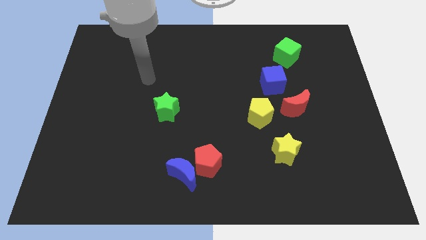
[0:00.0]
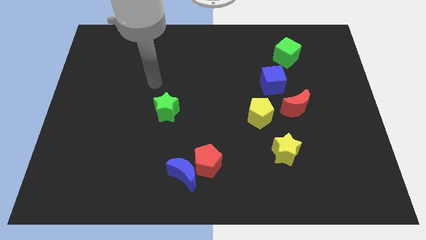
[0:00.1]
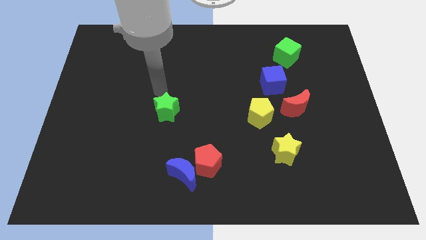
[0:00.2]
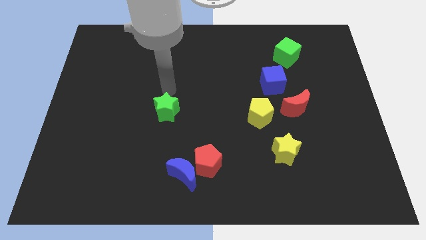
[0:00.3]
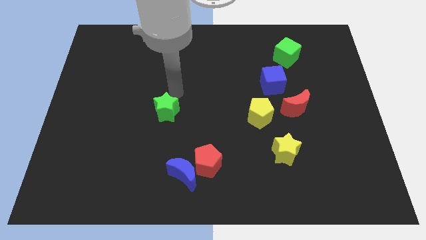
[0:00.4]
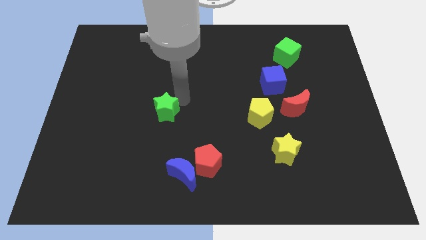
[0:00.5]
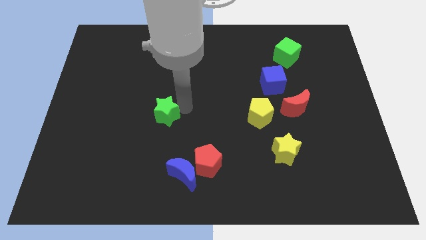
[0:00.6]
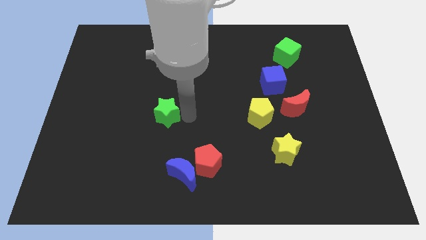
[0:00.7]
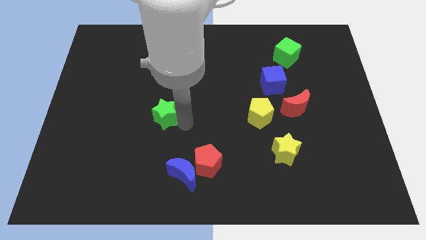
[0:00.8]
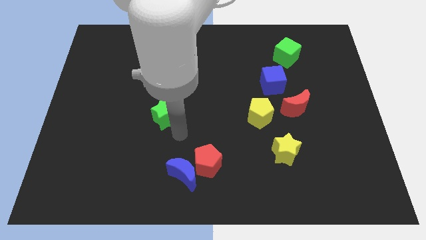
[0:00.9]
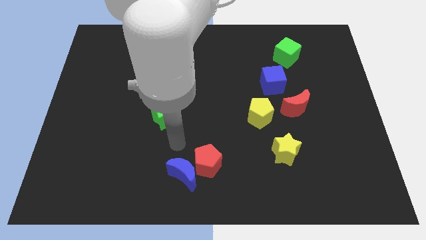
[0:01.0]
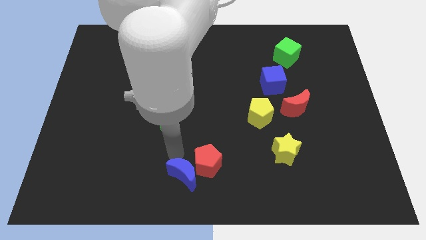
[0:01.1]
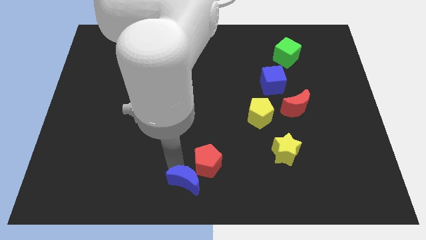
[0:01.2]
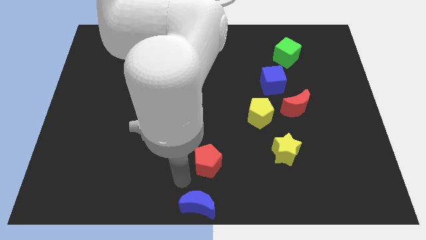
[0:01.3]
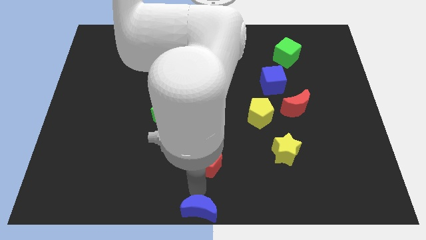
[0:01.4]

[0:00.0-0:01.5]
pull the red pentagon apart from the blue moon

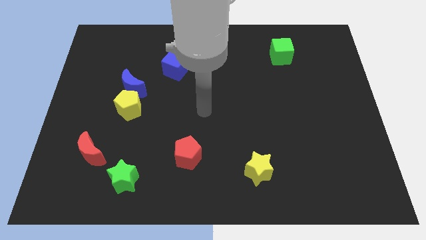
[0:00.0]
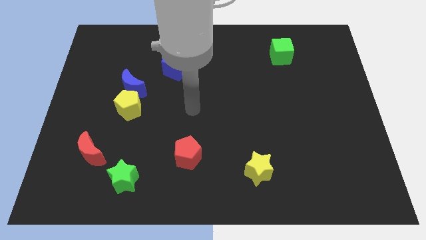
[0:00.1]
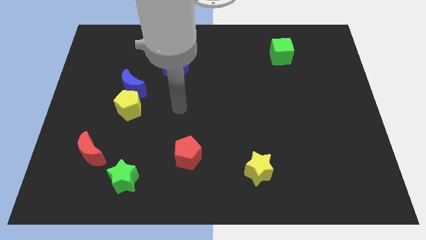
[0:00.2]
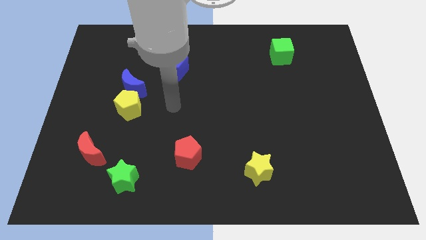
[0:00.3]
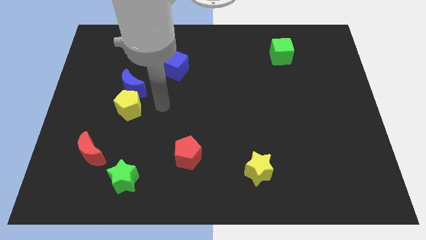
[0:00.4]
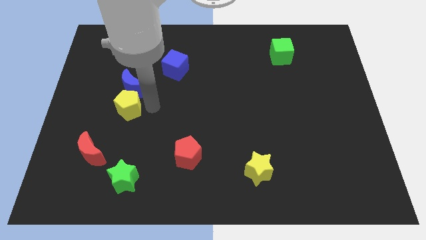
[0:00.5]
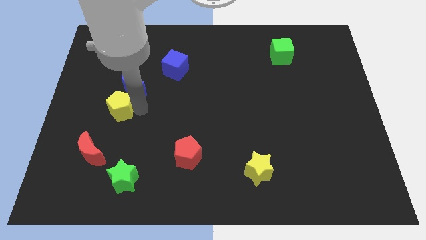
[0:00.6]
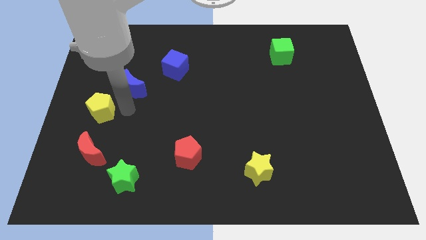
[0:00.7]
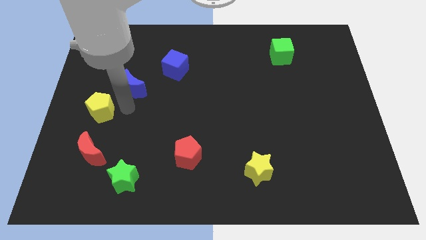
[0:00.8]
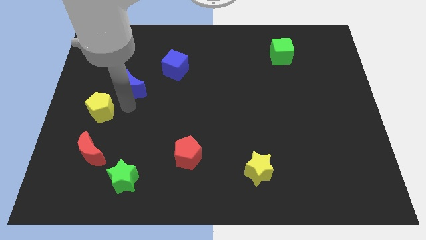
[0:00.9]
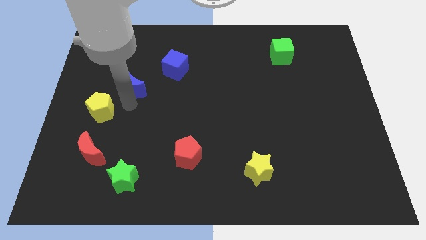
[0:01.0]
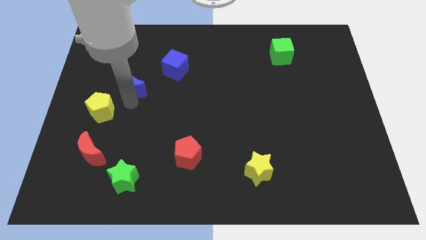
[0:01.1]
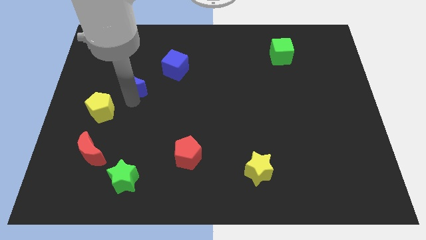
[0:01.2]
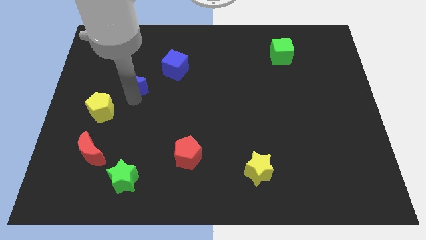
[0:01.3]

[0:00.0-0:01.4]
separate the blue moon from the yellow pentagon

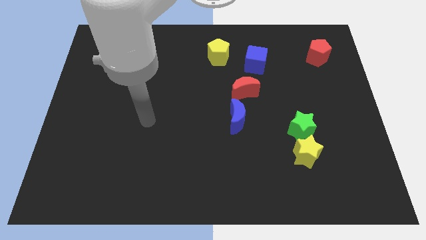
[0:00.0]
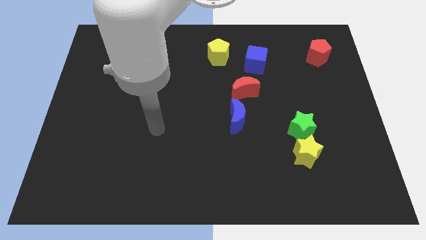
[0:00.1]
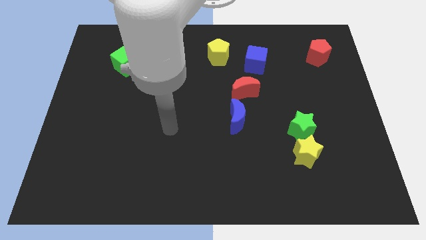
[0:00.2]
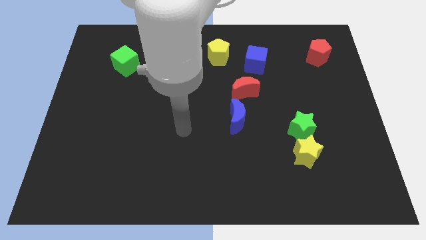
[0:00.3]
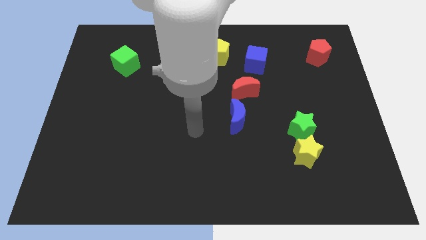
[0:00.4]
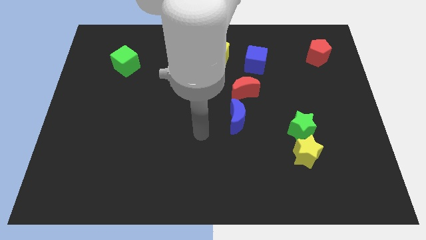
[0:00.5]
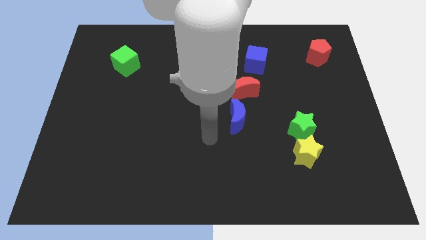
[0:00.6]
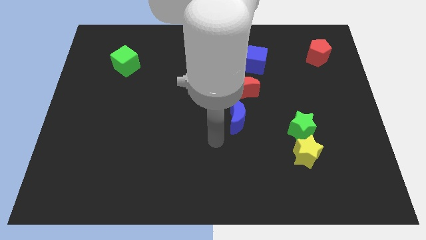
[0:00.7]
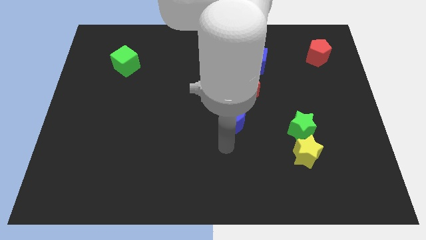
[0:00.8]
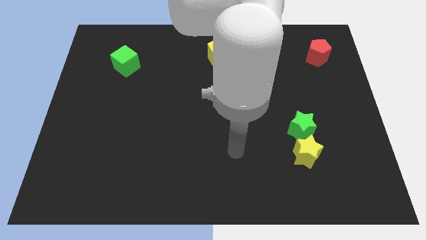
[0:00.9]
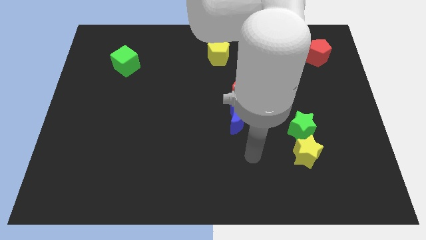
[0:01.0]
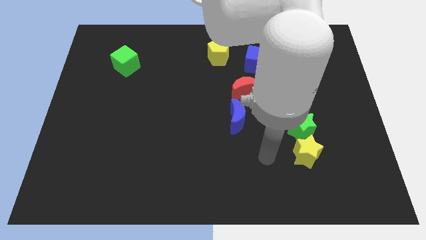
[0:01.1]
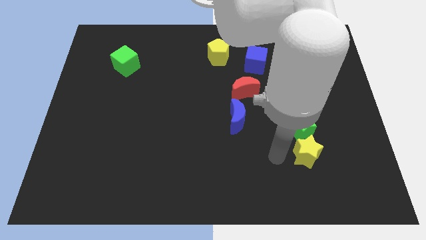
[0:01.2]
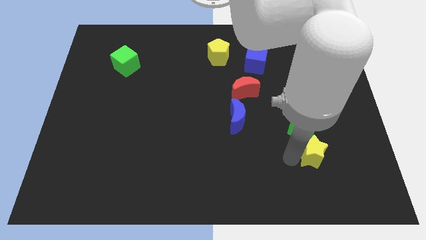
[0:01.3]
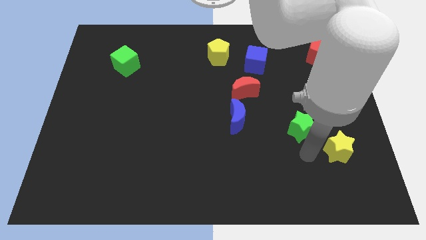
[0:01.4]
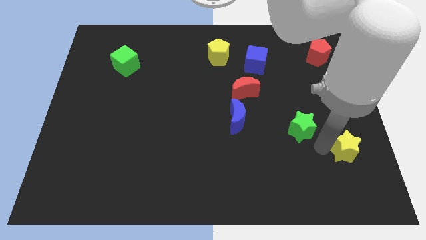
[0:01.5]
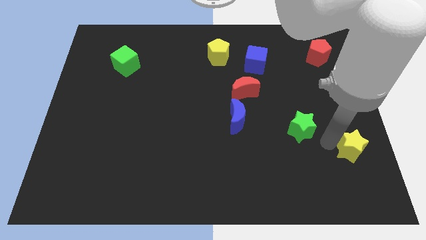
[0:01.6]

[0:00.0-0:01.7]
pull the green star apart from the yellow star

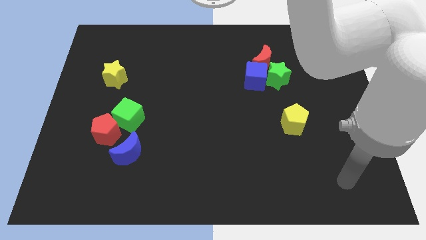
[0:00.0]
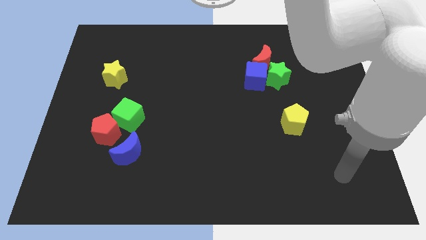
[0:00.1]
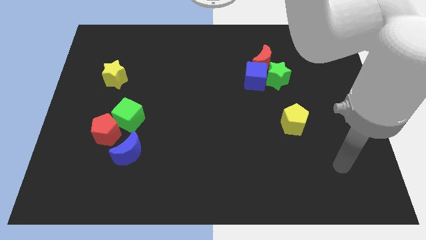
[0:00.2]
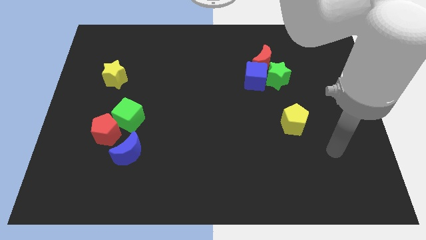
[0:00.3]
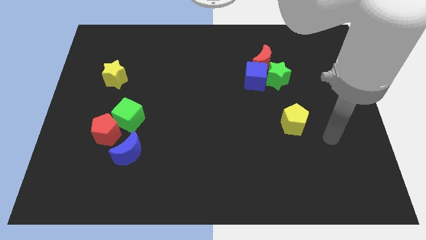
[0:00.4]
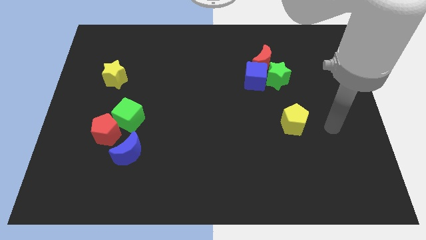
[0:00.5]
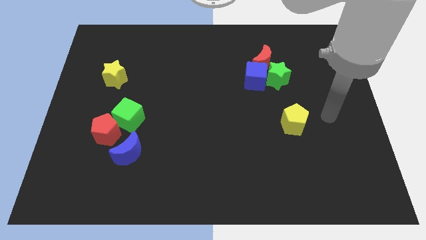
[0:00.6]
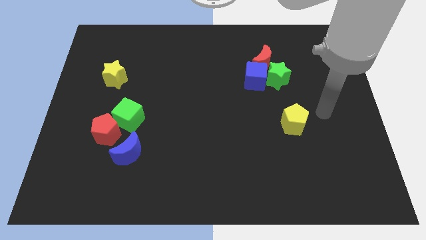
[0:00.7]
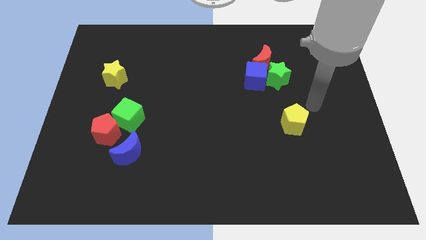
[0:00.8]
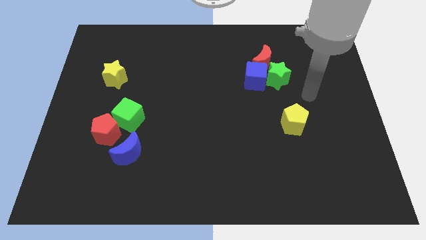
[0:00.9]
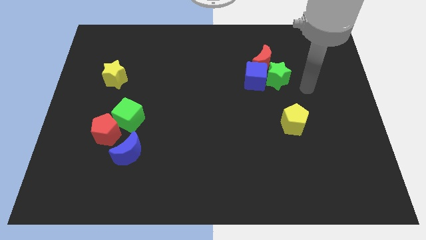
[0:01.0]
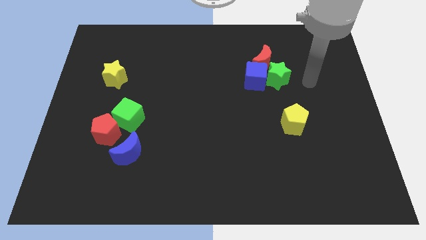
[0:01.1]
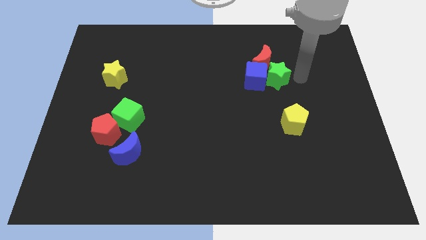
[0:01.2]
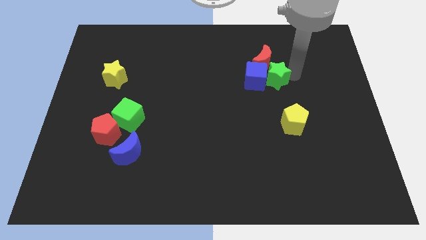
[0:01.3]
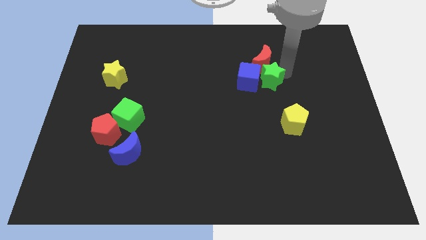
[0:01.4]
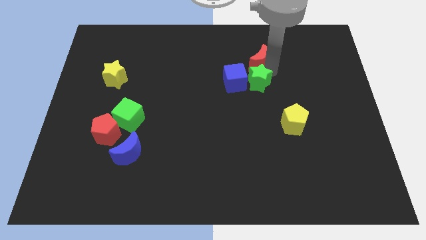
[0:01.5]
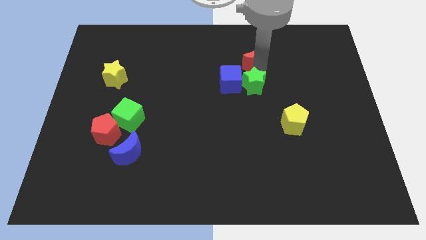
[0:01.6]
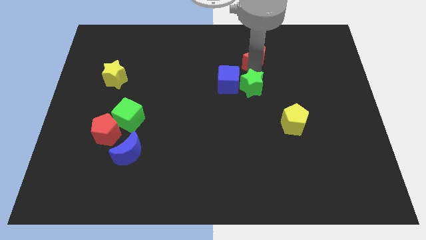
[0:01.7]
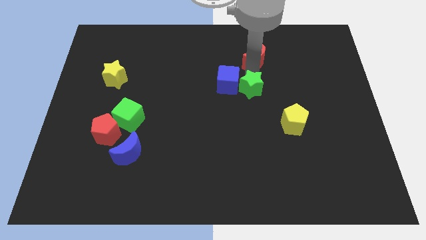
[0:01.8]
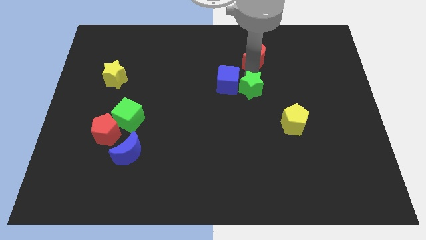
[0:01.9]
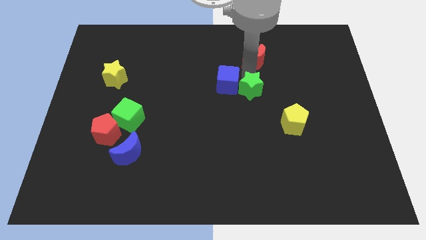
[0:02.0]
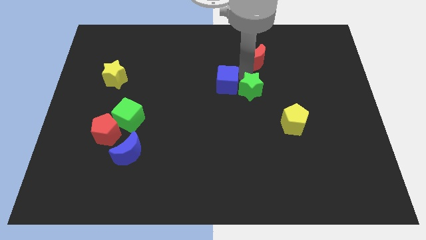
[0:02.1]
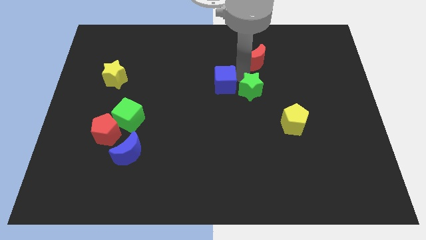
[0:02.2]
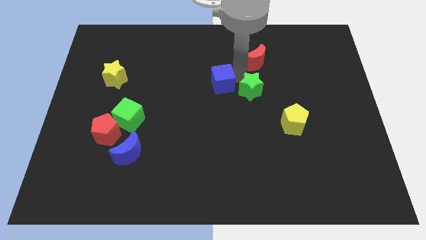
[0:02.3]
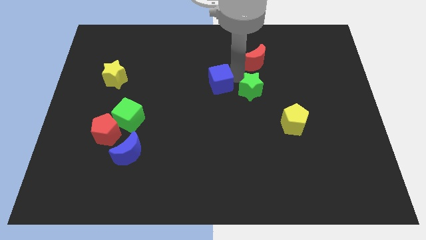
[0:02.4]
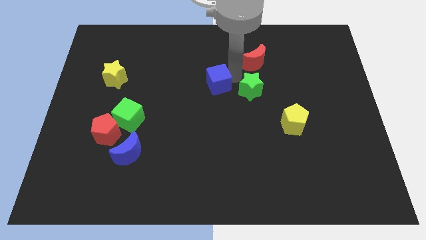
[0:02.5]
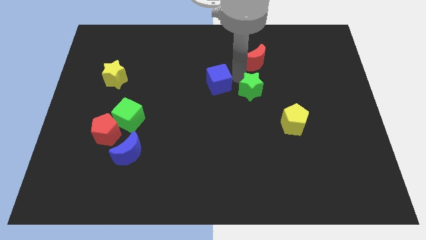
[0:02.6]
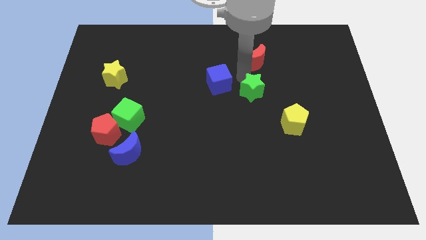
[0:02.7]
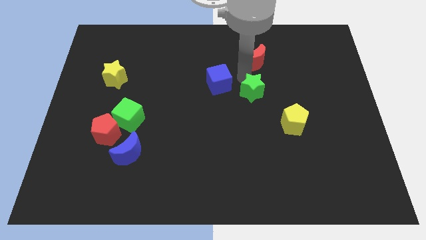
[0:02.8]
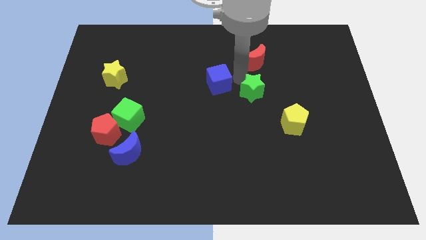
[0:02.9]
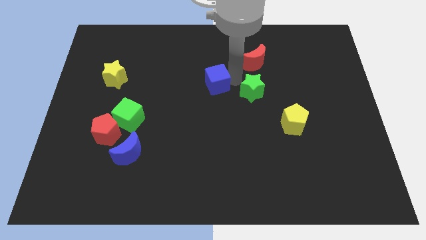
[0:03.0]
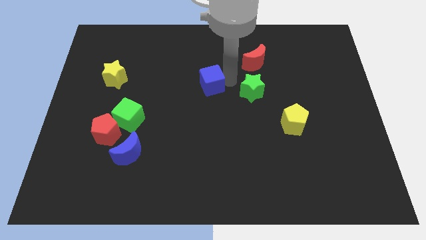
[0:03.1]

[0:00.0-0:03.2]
move the blue cube away from the green star and red moon

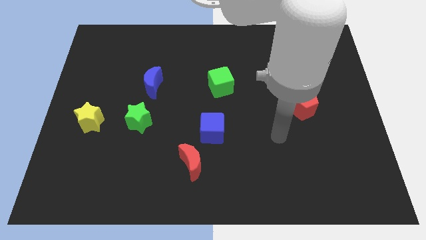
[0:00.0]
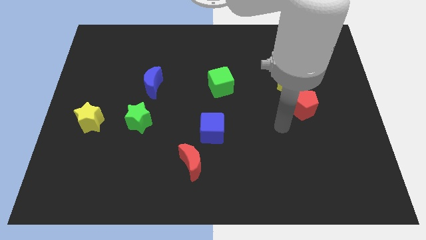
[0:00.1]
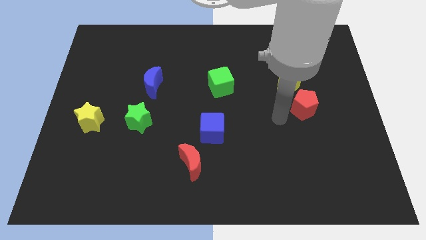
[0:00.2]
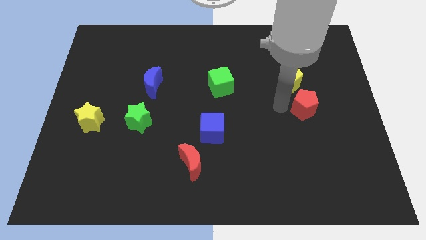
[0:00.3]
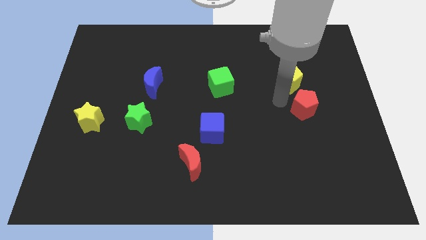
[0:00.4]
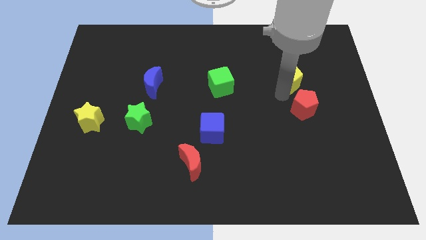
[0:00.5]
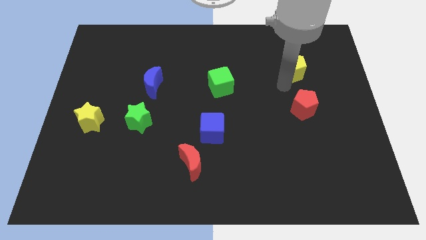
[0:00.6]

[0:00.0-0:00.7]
move the red pentagon away from the yellow pentagon

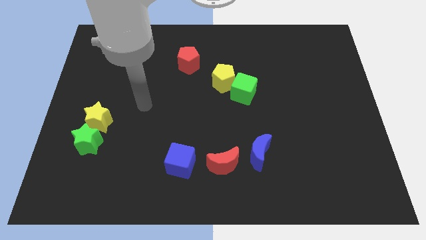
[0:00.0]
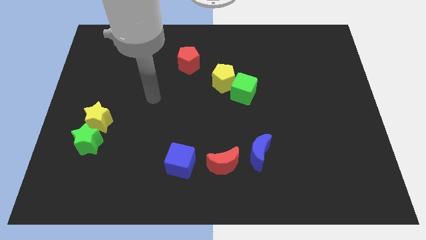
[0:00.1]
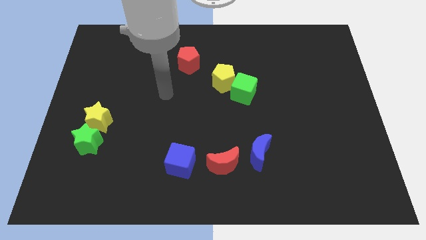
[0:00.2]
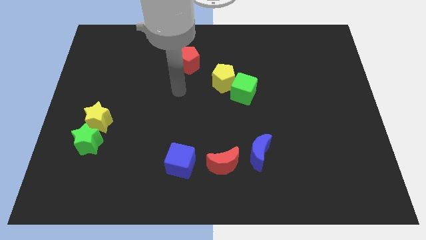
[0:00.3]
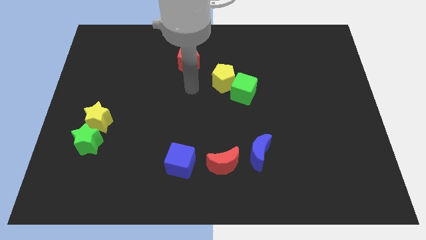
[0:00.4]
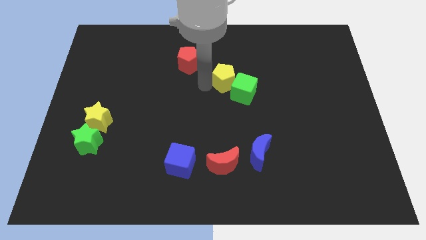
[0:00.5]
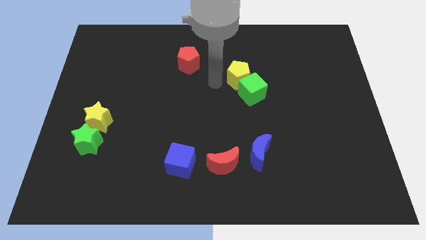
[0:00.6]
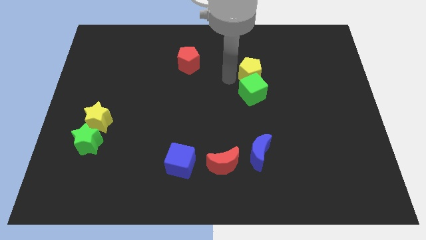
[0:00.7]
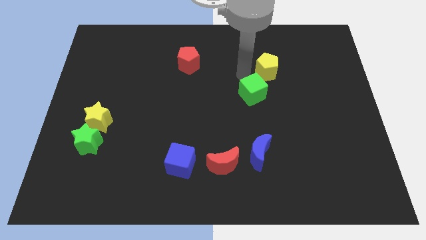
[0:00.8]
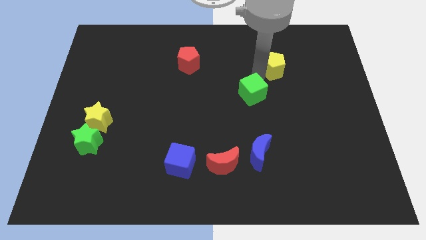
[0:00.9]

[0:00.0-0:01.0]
separate the green cube from the yellow pentagon
